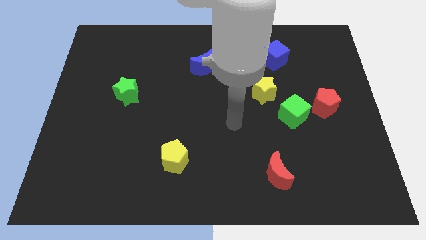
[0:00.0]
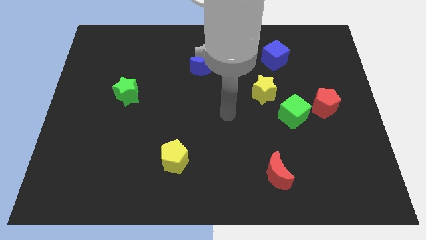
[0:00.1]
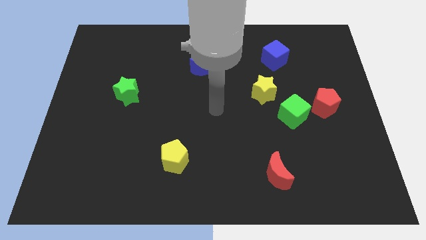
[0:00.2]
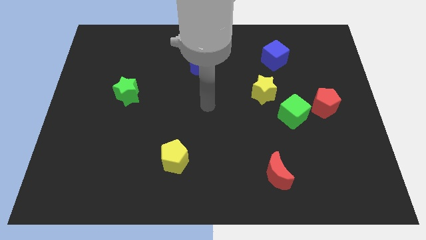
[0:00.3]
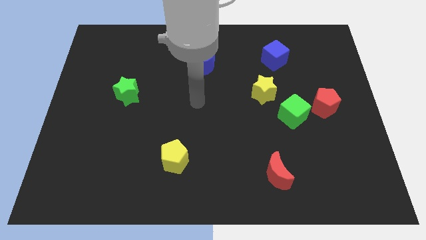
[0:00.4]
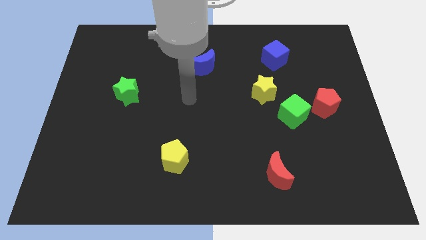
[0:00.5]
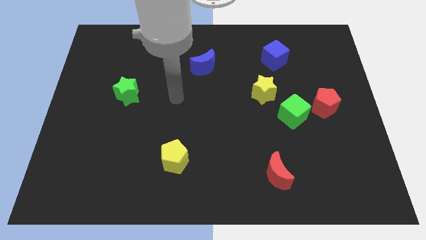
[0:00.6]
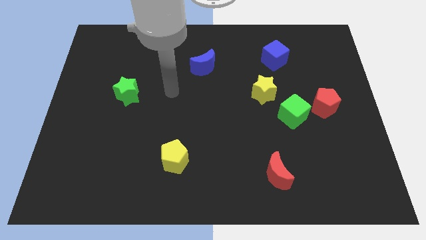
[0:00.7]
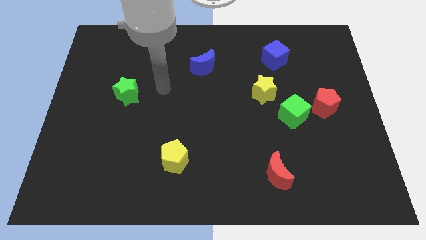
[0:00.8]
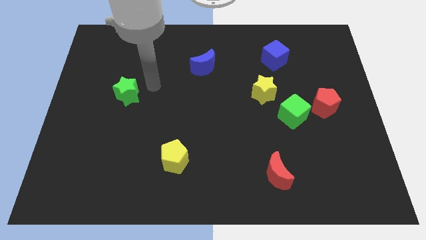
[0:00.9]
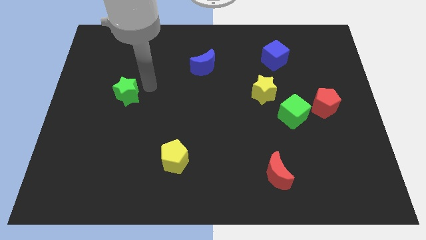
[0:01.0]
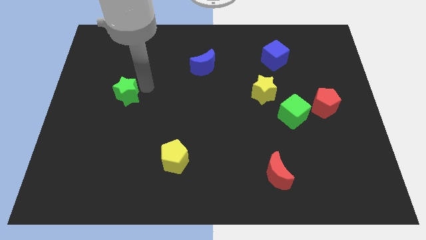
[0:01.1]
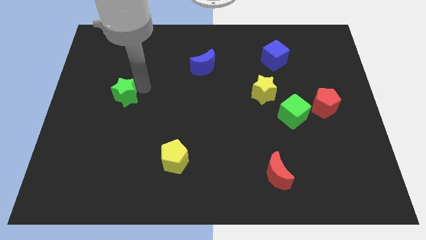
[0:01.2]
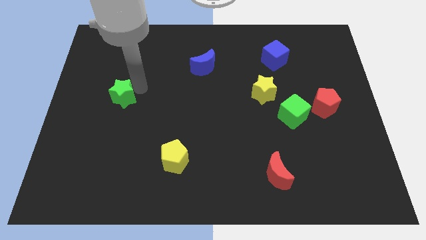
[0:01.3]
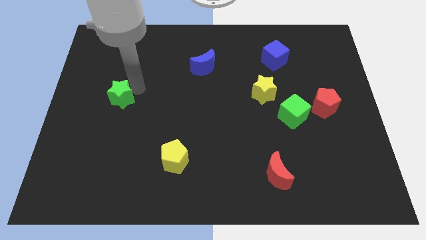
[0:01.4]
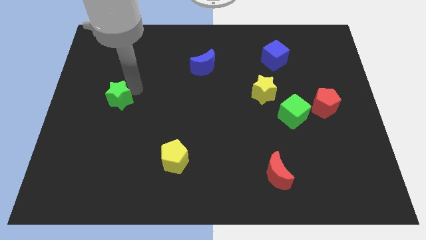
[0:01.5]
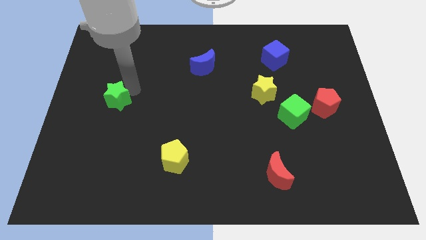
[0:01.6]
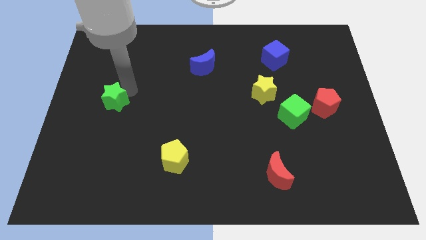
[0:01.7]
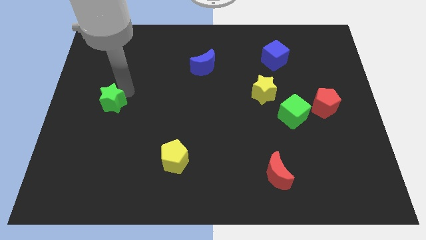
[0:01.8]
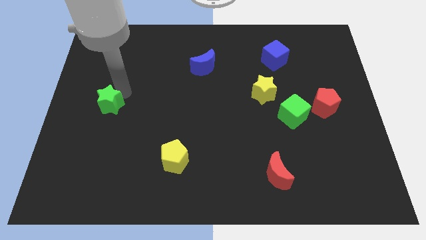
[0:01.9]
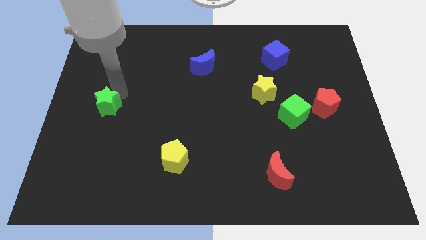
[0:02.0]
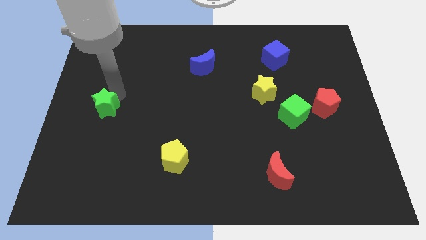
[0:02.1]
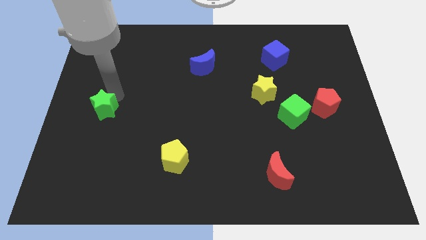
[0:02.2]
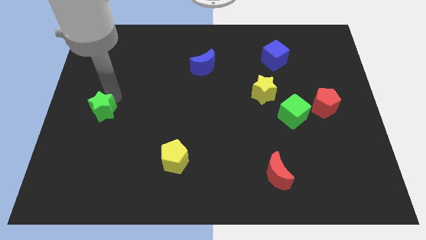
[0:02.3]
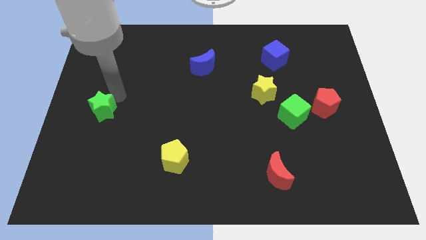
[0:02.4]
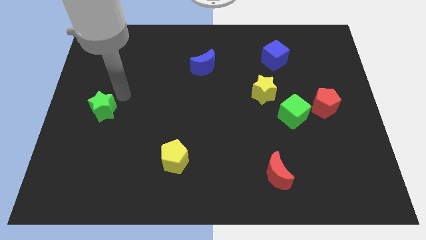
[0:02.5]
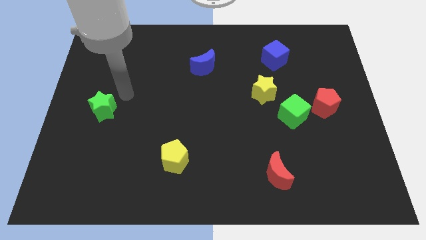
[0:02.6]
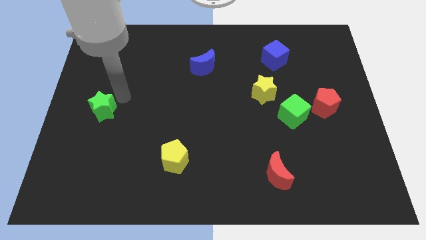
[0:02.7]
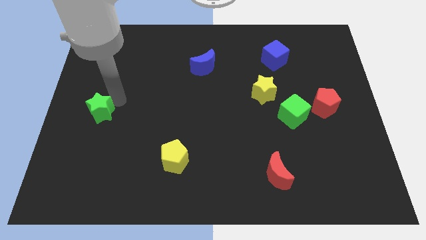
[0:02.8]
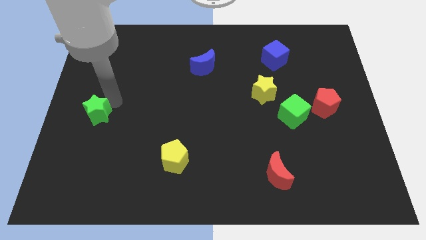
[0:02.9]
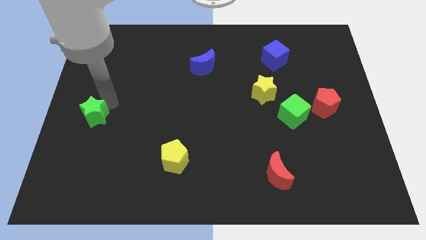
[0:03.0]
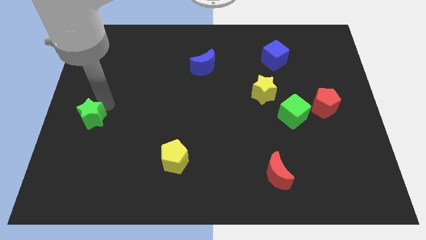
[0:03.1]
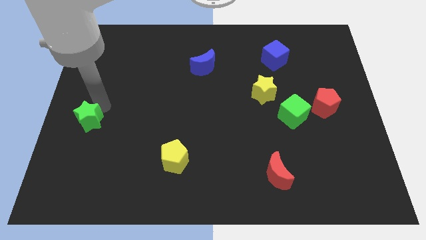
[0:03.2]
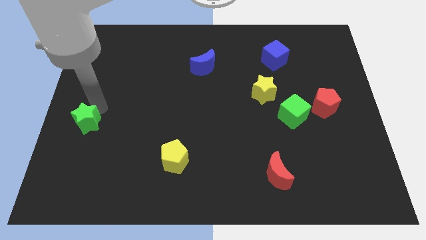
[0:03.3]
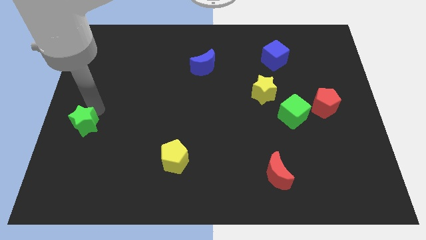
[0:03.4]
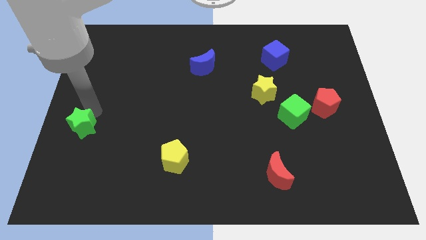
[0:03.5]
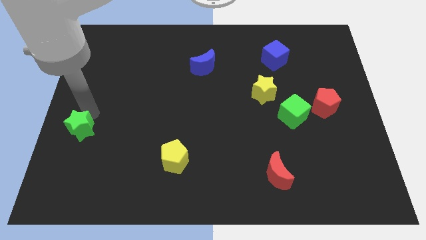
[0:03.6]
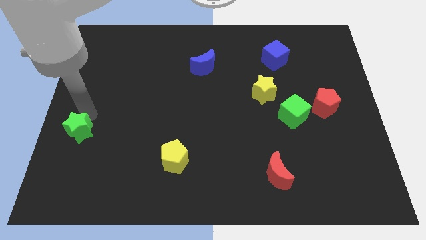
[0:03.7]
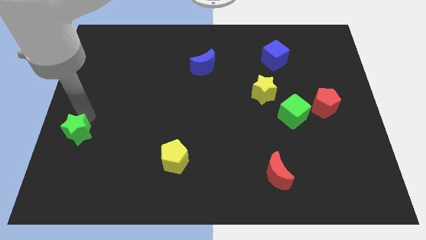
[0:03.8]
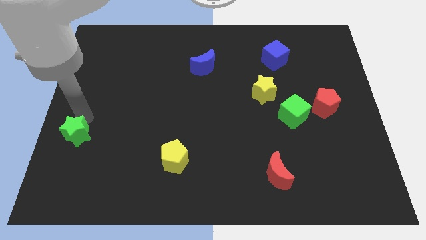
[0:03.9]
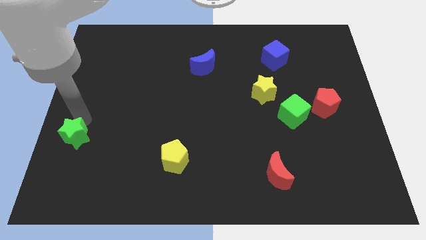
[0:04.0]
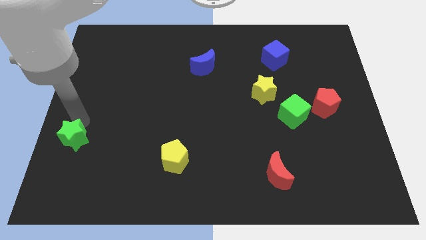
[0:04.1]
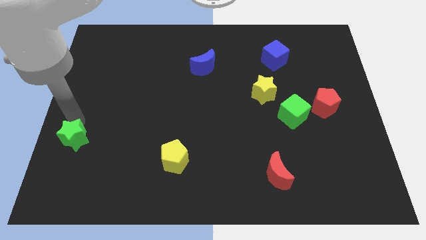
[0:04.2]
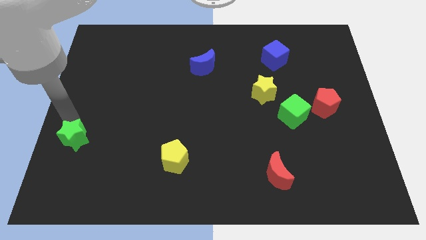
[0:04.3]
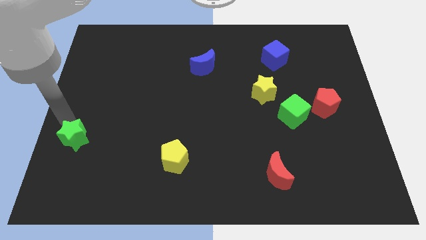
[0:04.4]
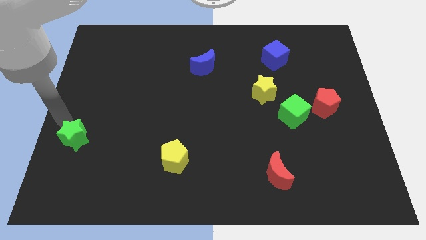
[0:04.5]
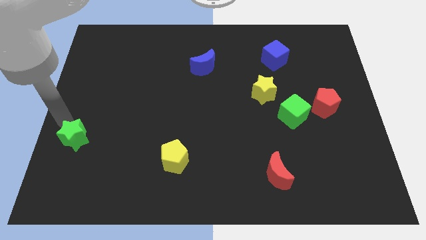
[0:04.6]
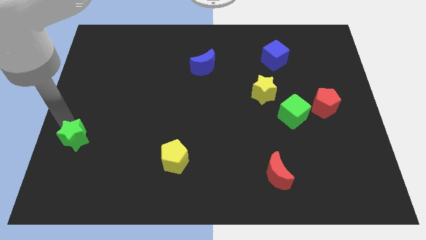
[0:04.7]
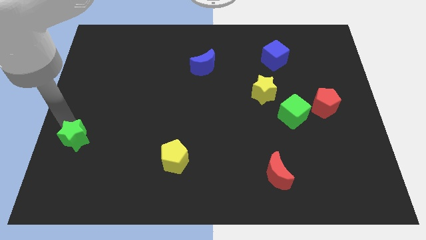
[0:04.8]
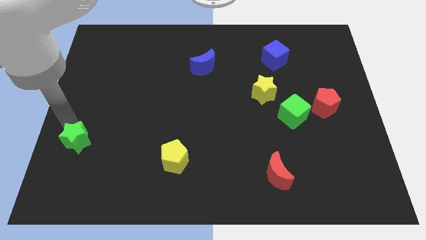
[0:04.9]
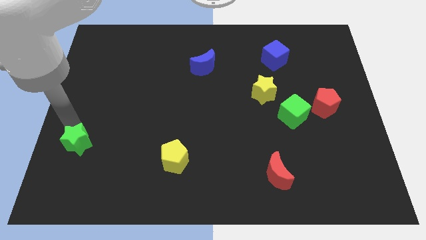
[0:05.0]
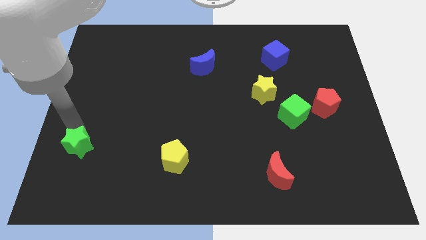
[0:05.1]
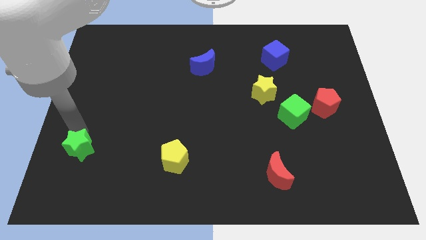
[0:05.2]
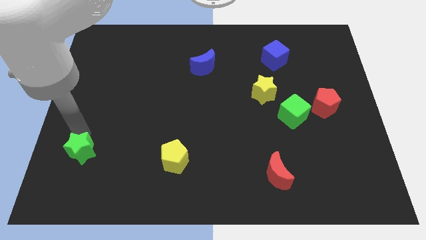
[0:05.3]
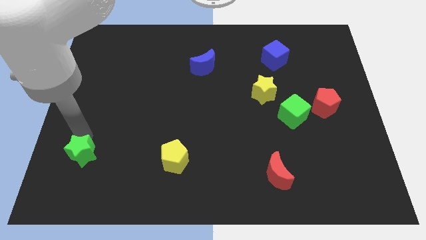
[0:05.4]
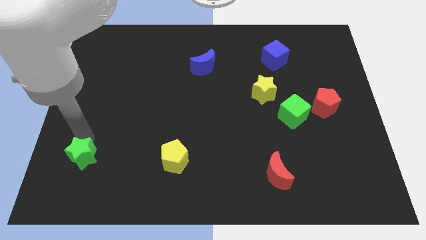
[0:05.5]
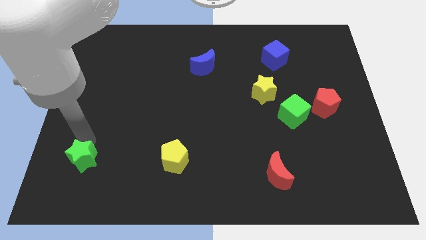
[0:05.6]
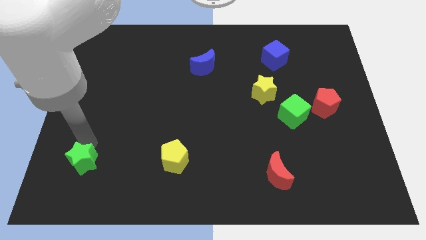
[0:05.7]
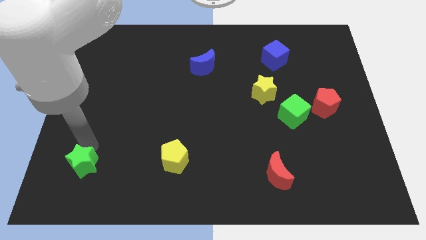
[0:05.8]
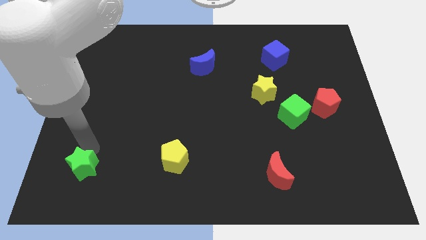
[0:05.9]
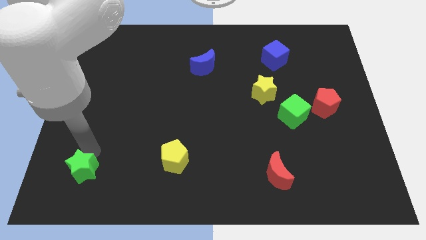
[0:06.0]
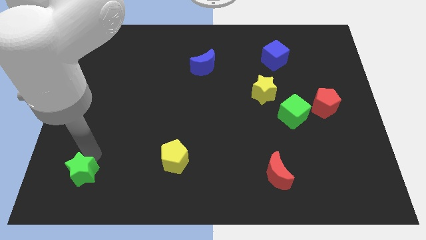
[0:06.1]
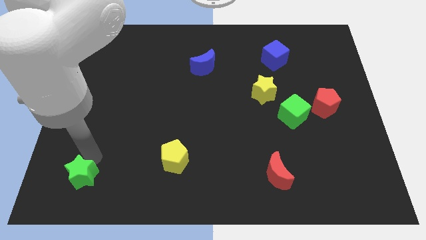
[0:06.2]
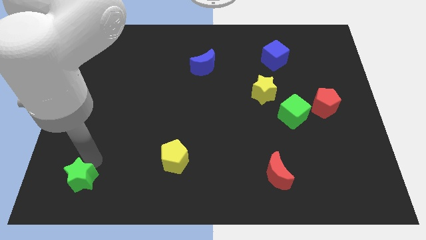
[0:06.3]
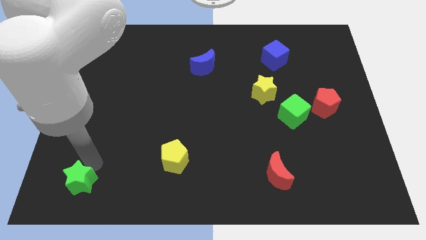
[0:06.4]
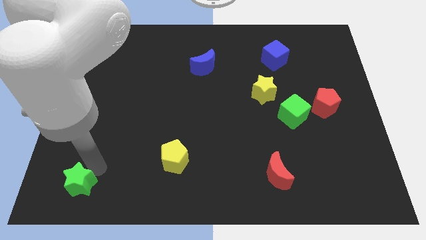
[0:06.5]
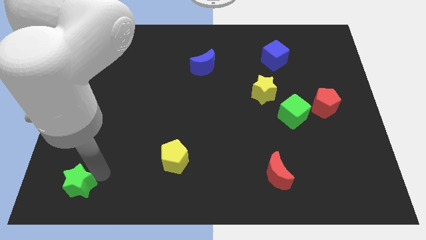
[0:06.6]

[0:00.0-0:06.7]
slide the green star to the lower left corner
